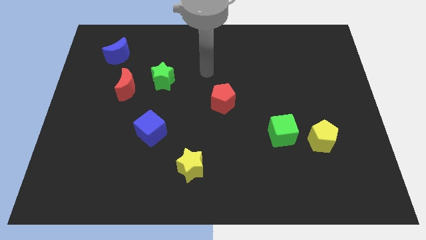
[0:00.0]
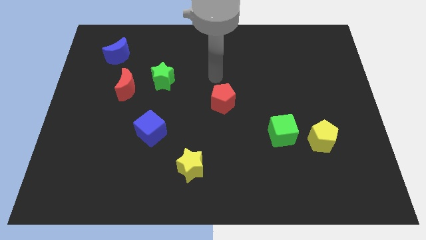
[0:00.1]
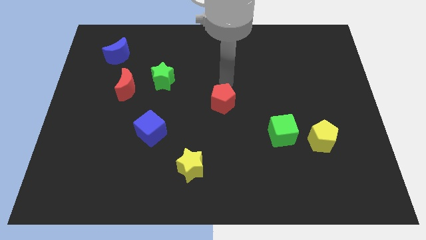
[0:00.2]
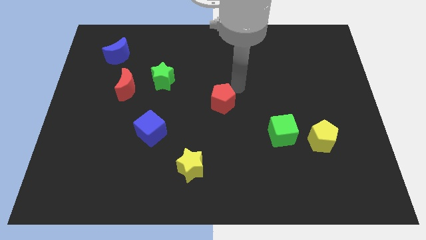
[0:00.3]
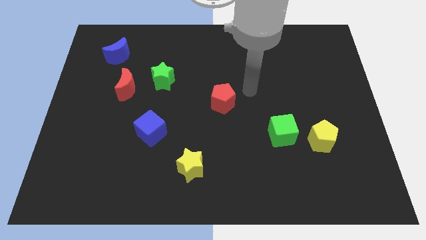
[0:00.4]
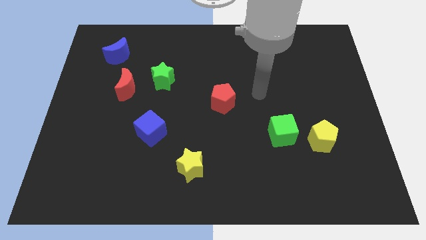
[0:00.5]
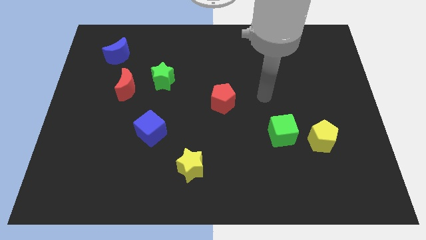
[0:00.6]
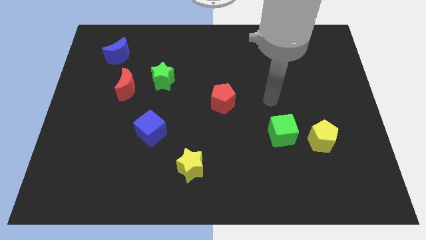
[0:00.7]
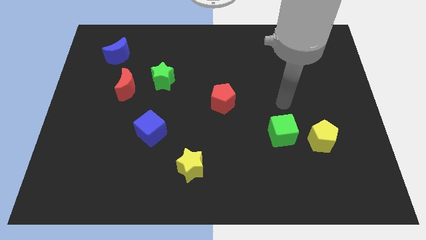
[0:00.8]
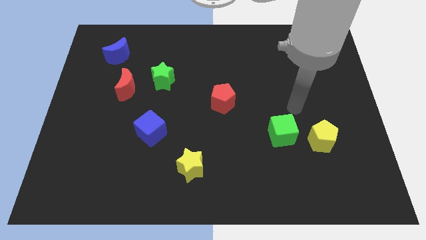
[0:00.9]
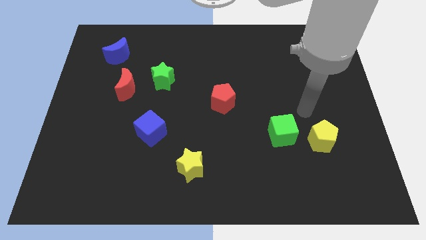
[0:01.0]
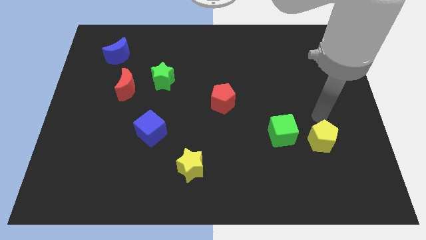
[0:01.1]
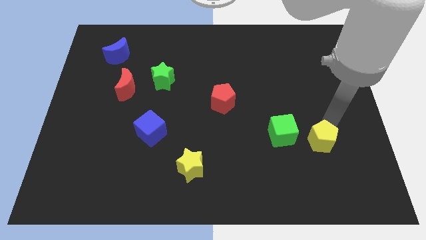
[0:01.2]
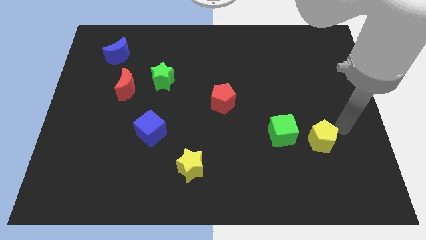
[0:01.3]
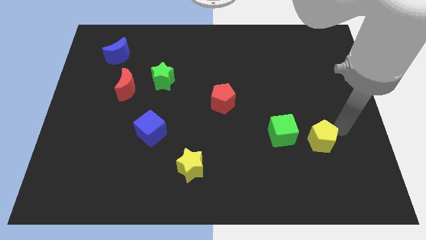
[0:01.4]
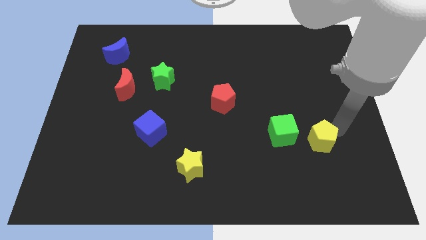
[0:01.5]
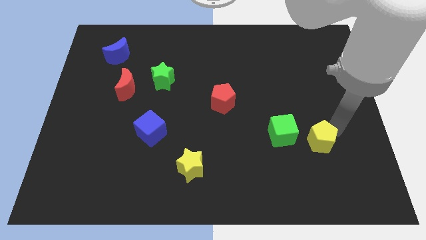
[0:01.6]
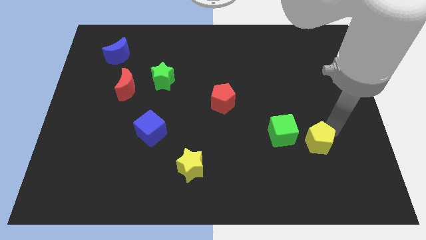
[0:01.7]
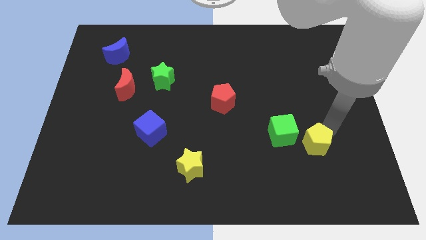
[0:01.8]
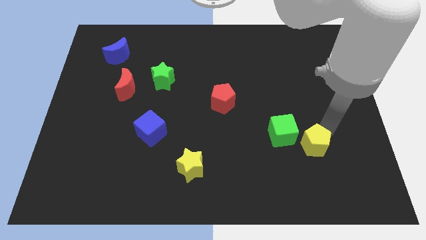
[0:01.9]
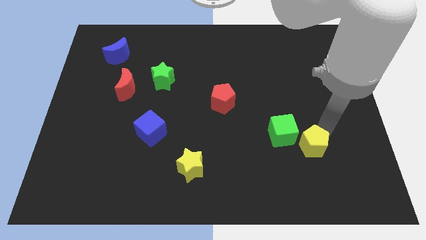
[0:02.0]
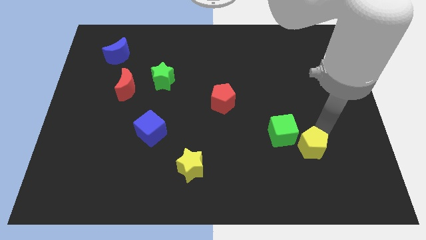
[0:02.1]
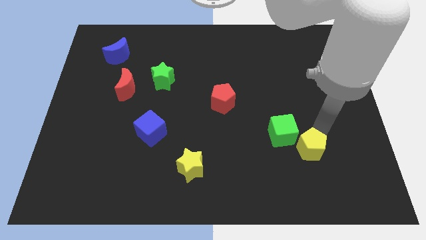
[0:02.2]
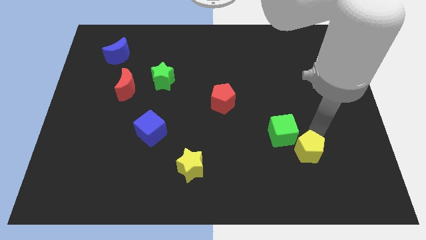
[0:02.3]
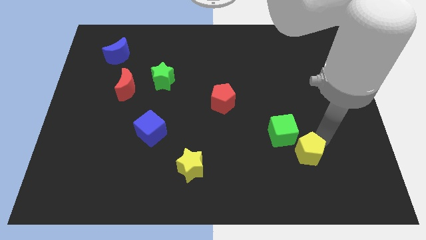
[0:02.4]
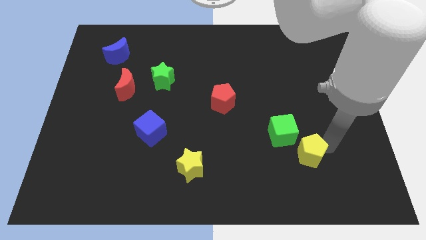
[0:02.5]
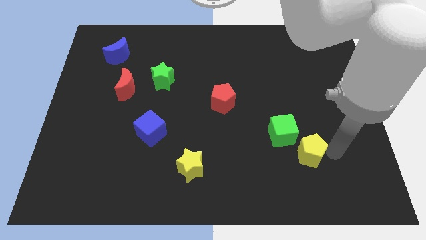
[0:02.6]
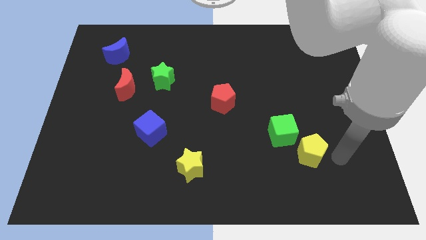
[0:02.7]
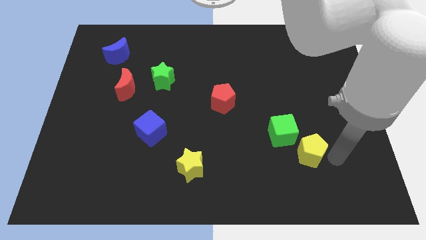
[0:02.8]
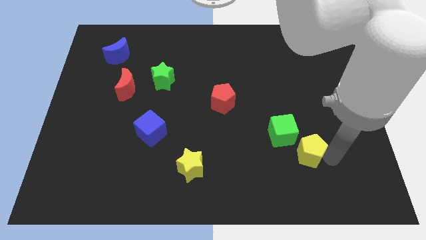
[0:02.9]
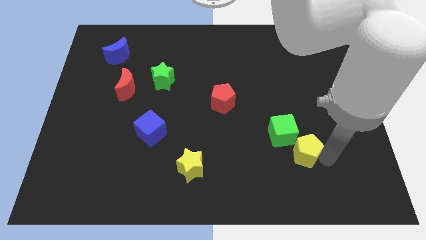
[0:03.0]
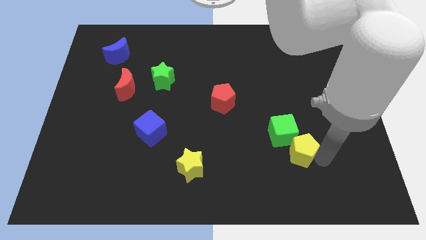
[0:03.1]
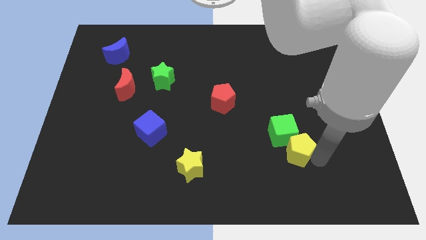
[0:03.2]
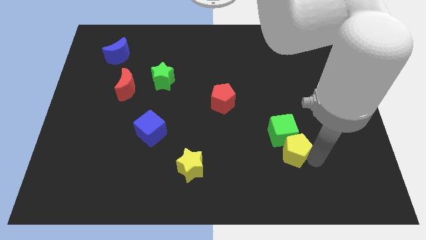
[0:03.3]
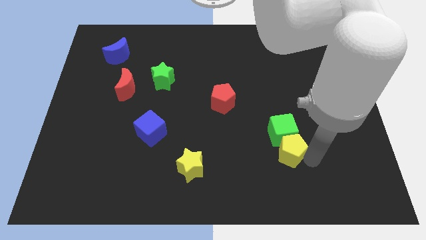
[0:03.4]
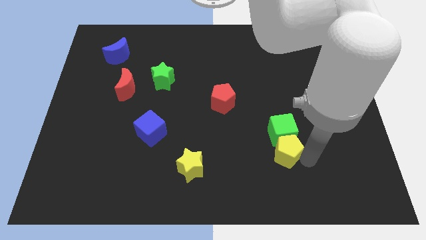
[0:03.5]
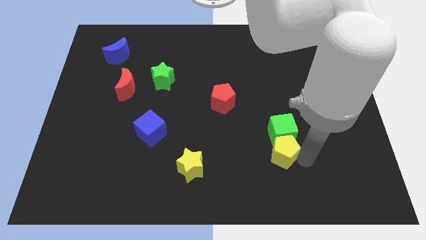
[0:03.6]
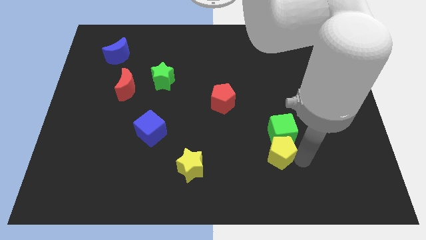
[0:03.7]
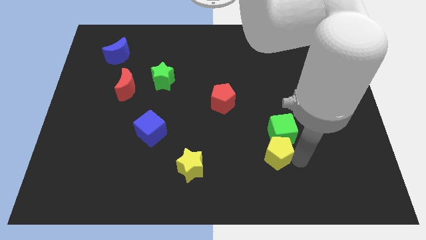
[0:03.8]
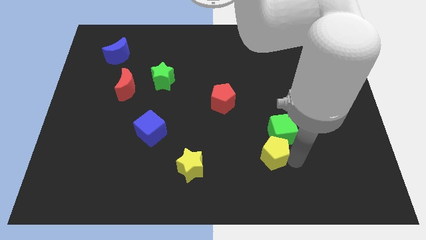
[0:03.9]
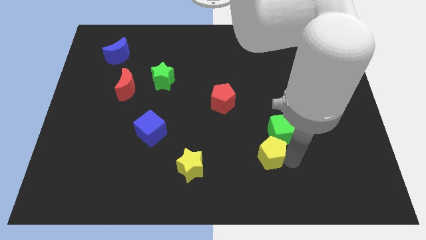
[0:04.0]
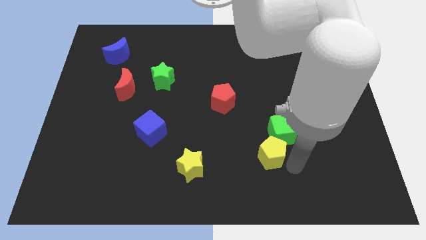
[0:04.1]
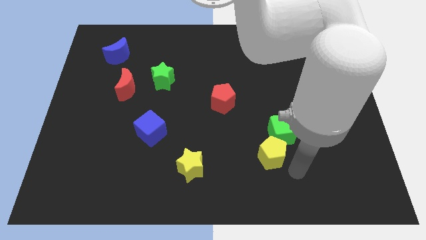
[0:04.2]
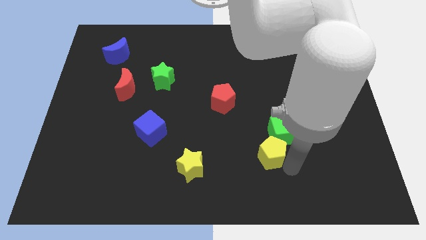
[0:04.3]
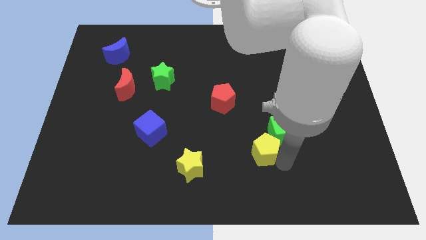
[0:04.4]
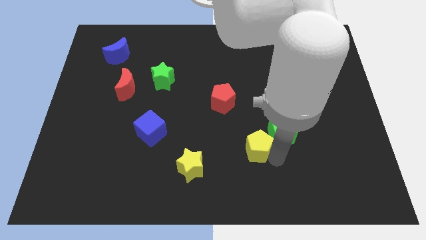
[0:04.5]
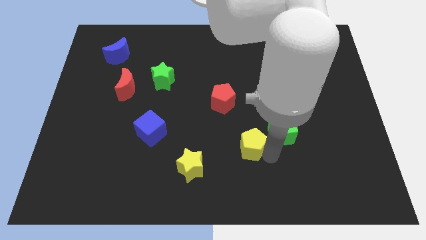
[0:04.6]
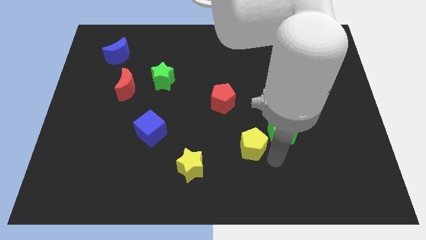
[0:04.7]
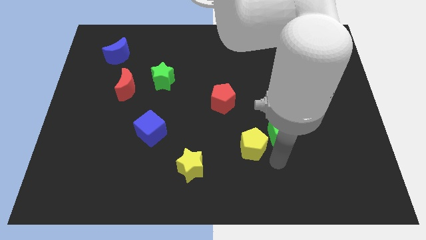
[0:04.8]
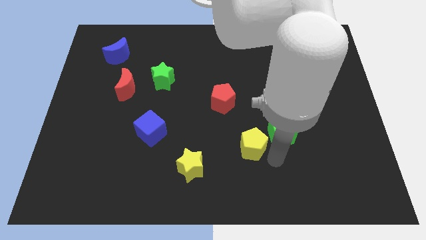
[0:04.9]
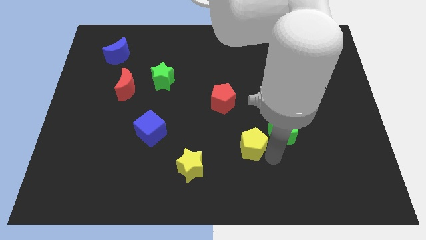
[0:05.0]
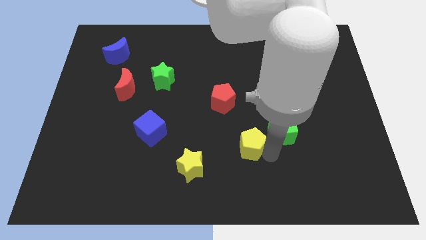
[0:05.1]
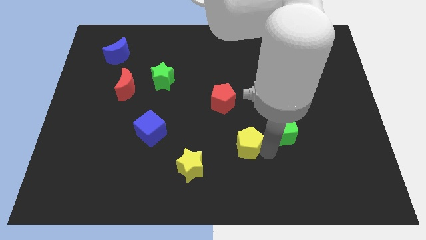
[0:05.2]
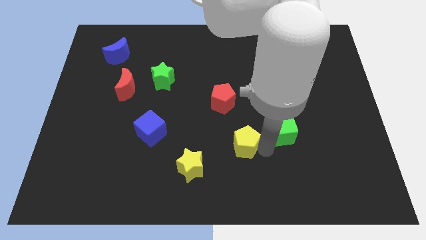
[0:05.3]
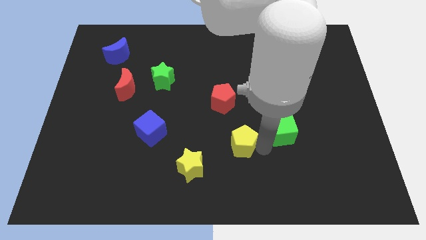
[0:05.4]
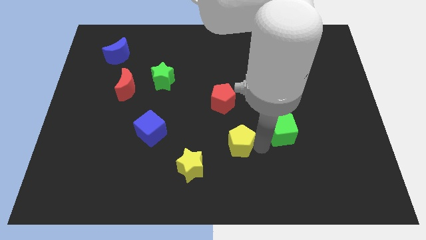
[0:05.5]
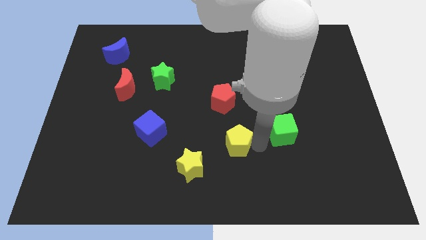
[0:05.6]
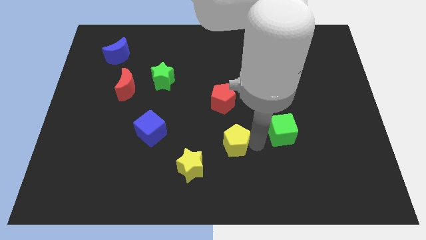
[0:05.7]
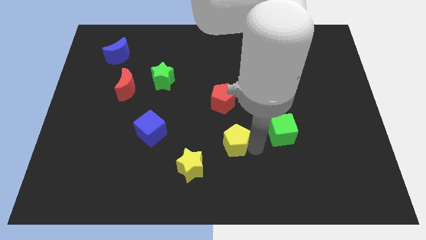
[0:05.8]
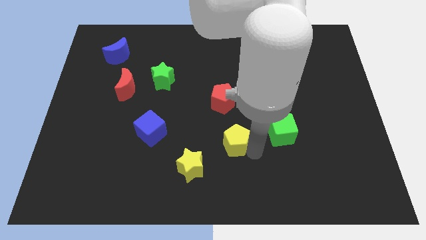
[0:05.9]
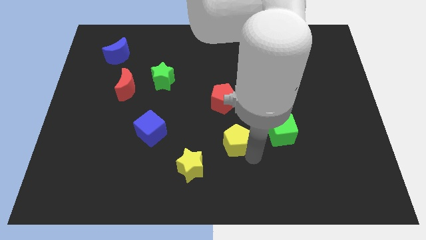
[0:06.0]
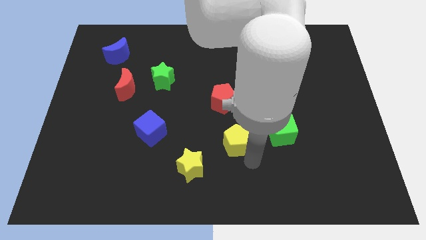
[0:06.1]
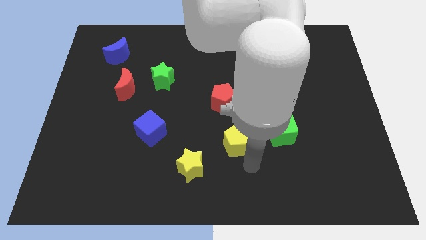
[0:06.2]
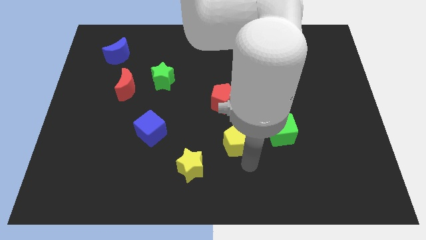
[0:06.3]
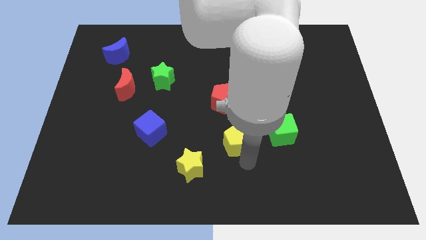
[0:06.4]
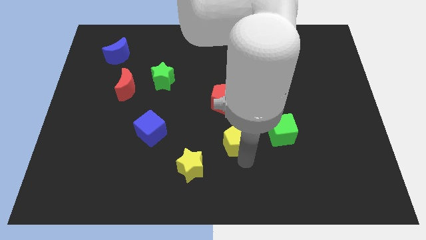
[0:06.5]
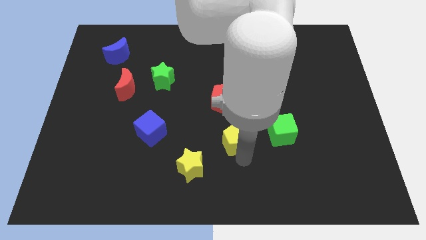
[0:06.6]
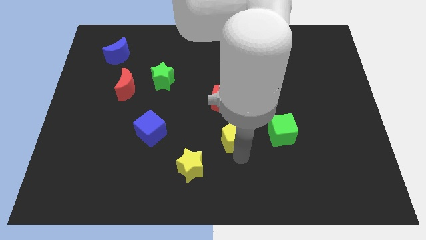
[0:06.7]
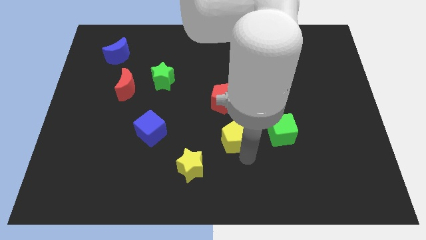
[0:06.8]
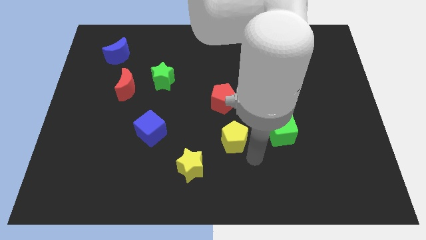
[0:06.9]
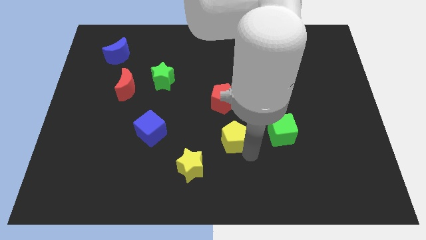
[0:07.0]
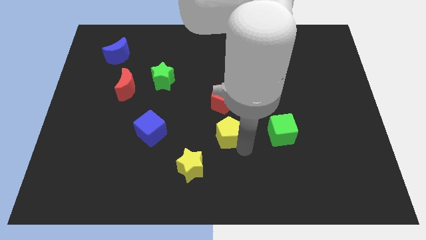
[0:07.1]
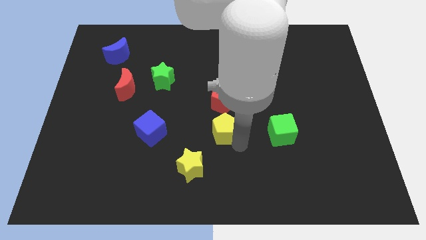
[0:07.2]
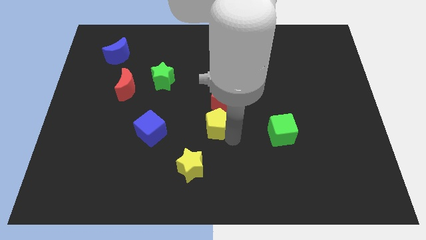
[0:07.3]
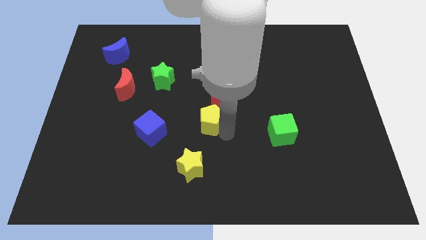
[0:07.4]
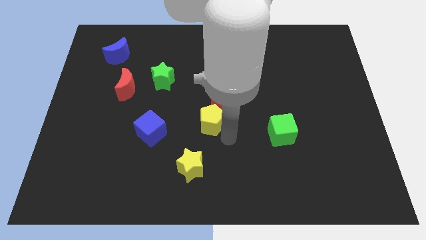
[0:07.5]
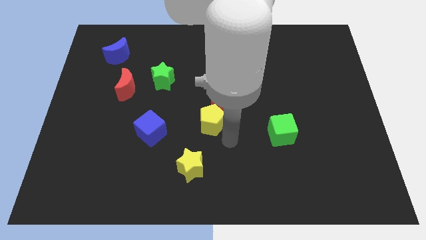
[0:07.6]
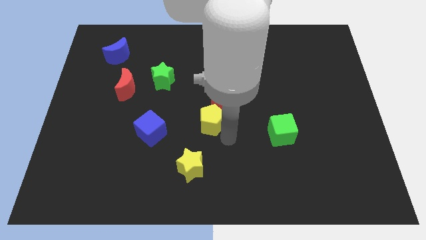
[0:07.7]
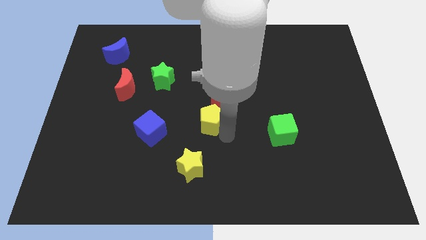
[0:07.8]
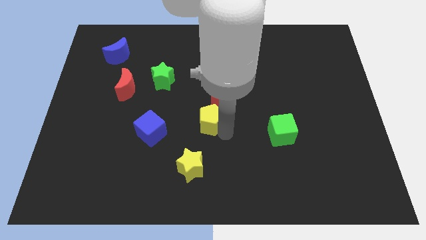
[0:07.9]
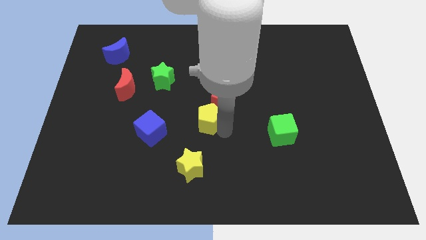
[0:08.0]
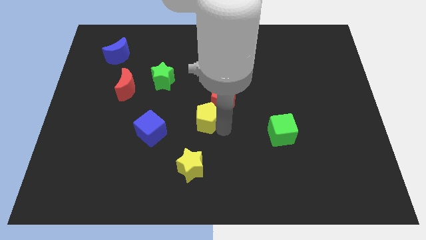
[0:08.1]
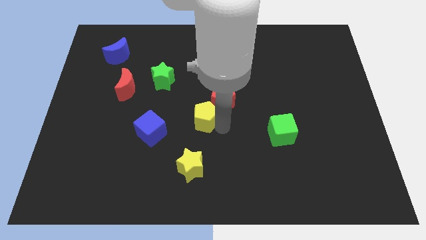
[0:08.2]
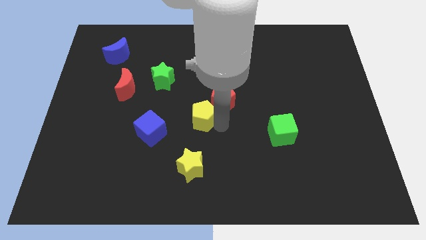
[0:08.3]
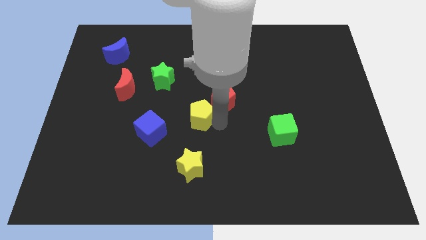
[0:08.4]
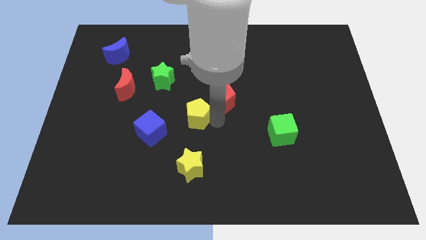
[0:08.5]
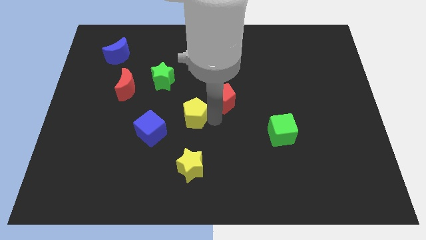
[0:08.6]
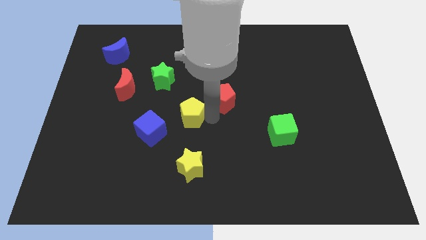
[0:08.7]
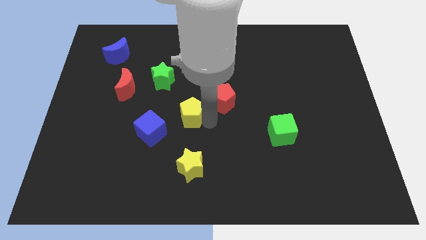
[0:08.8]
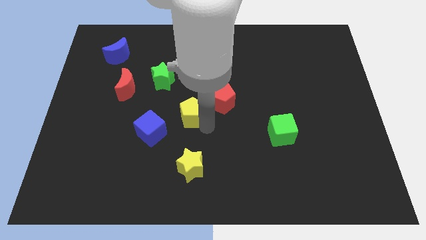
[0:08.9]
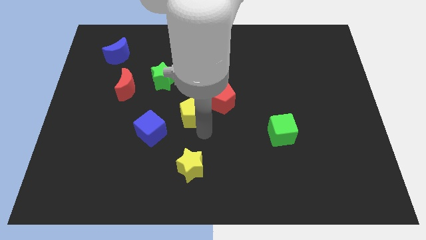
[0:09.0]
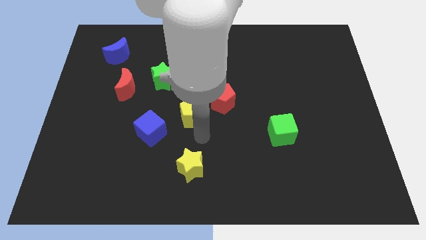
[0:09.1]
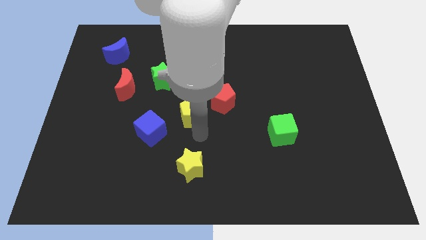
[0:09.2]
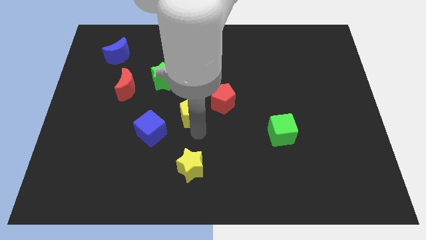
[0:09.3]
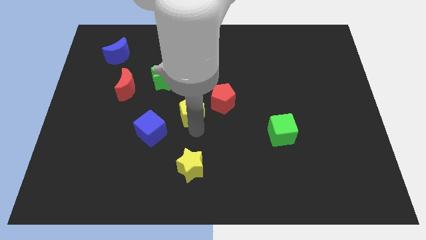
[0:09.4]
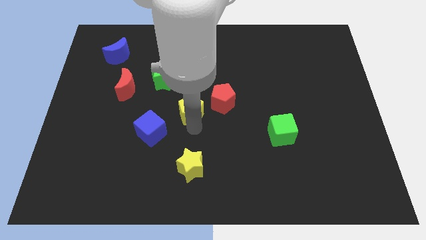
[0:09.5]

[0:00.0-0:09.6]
push the yellow pentagon diagonally down and to the right of the green star
